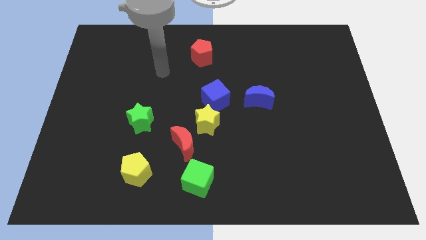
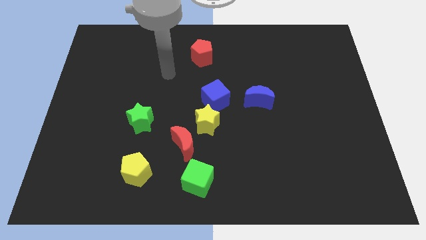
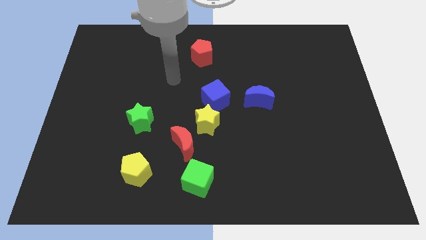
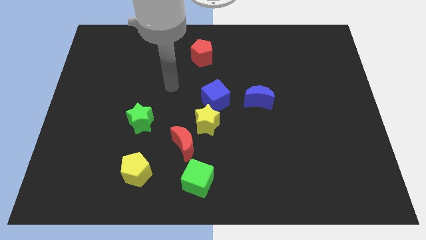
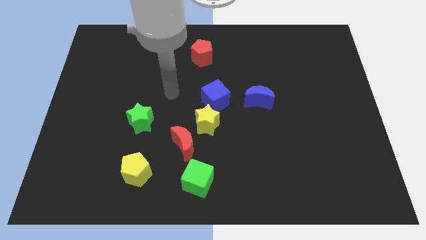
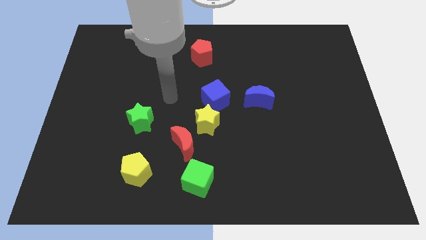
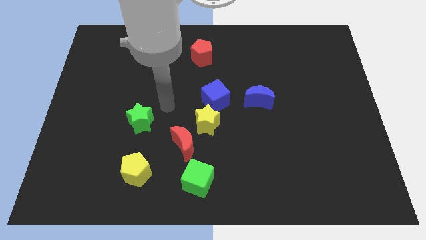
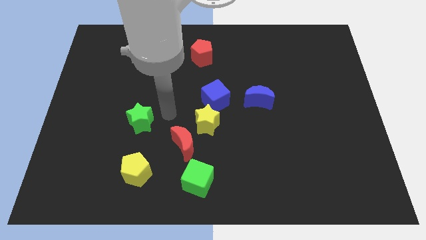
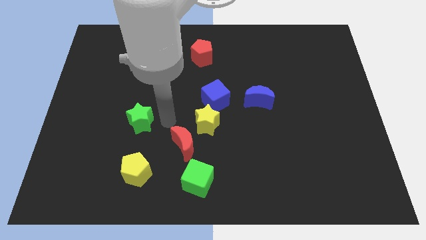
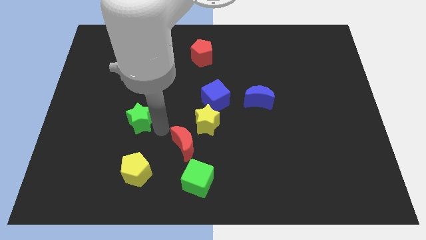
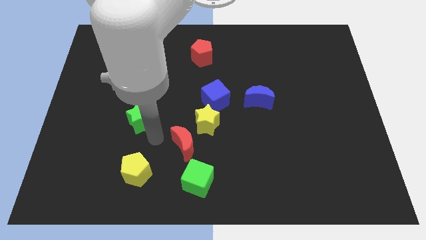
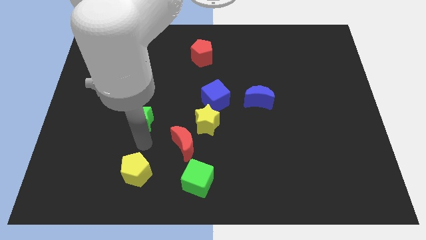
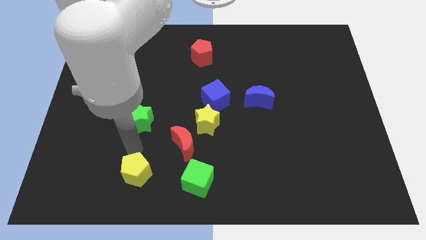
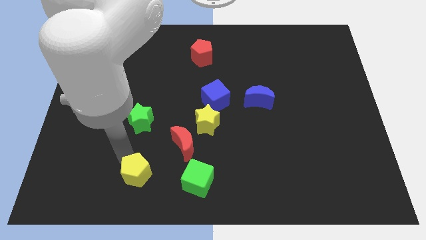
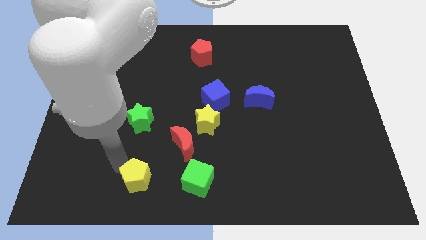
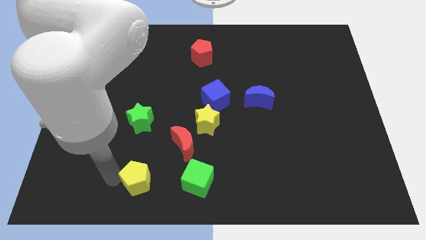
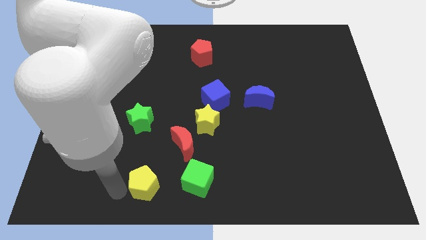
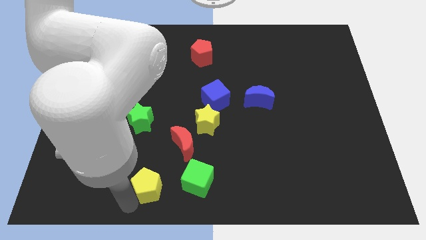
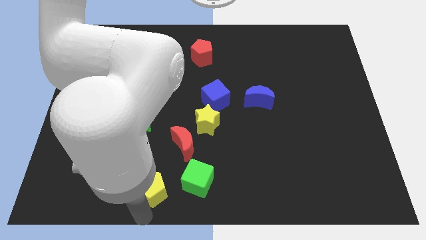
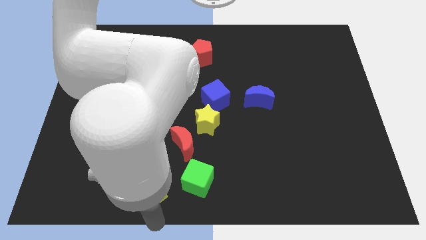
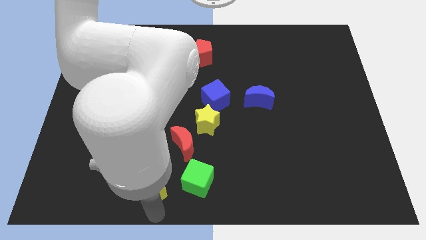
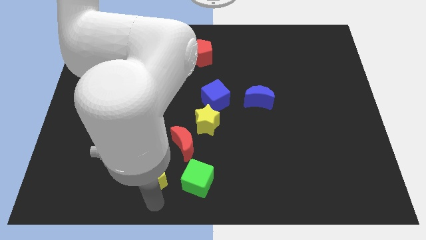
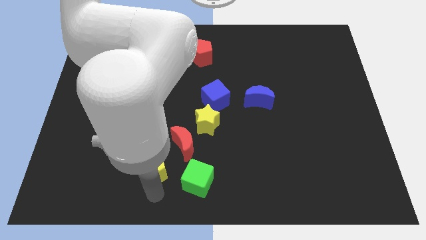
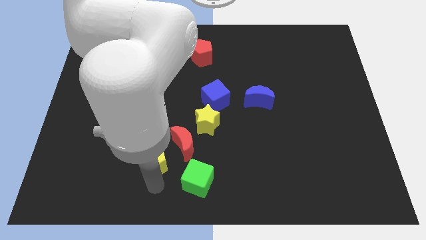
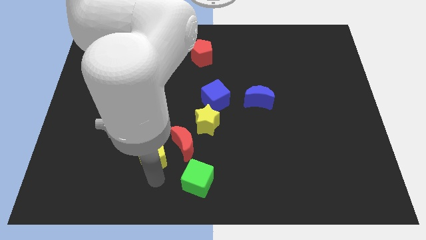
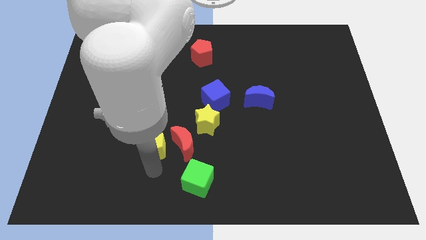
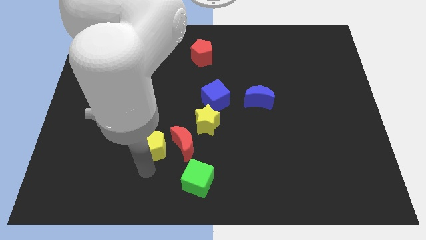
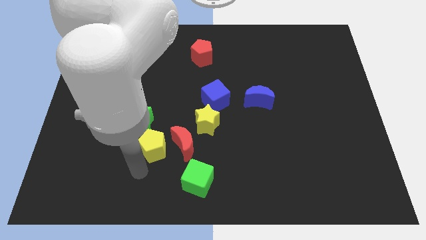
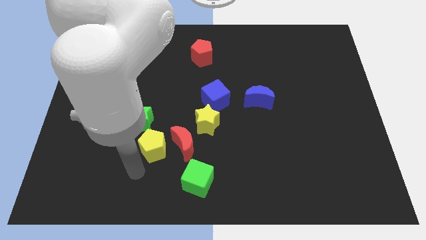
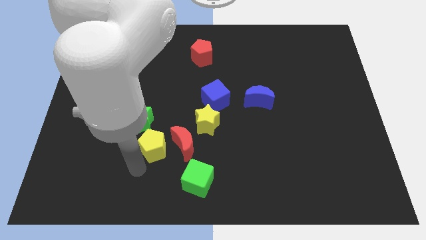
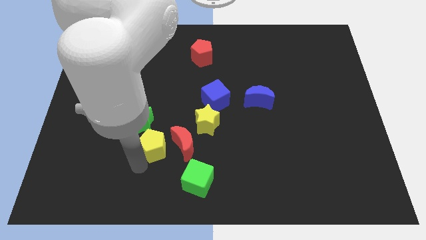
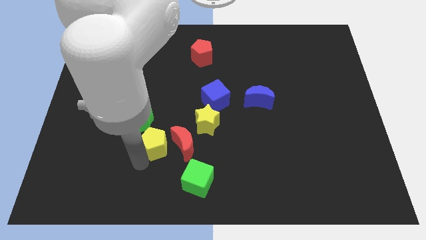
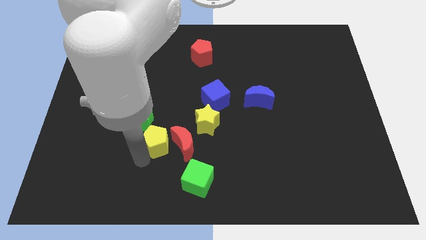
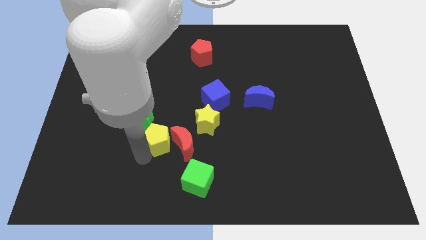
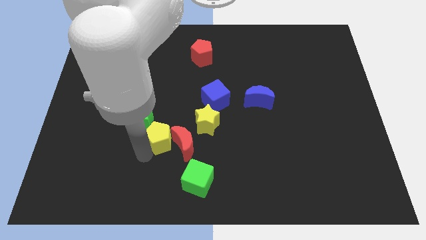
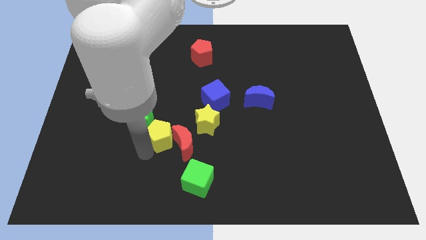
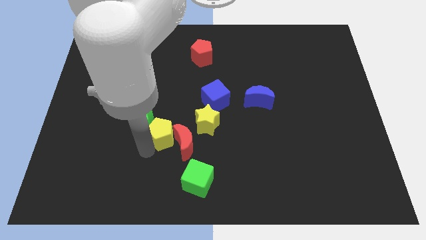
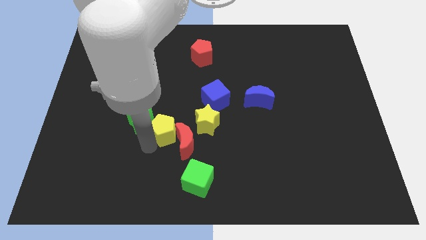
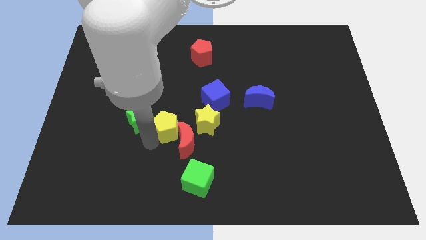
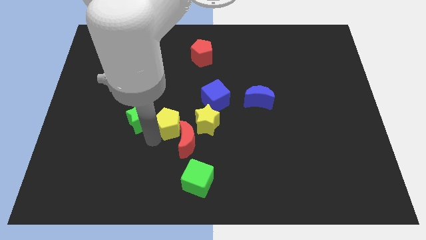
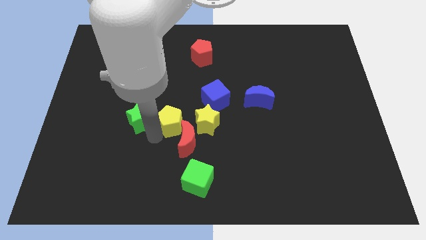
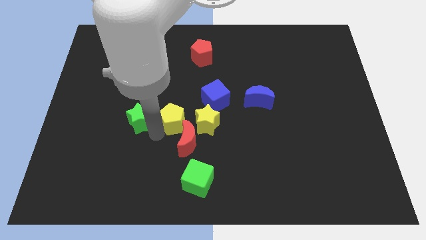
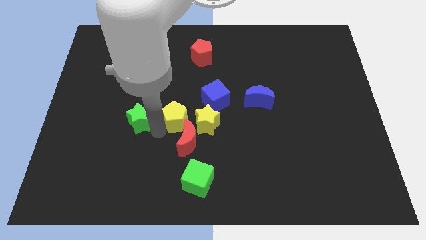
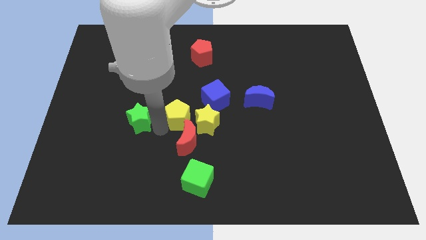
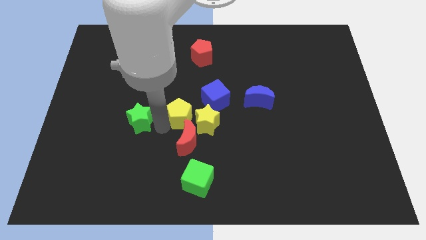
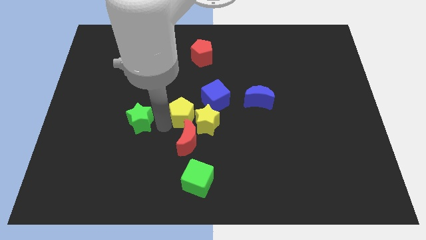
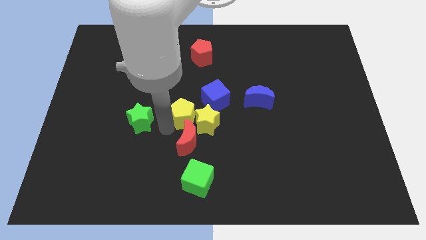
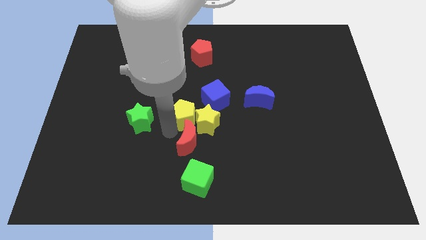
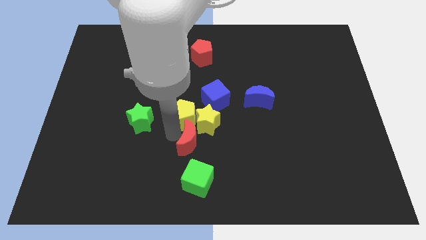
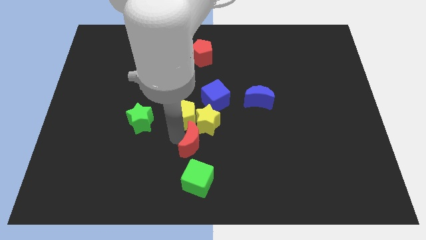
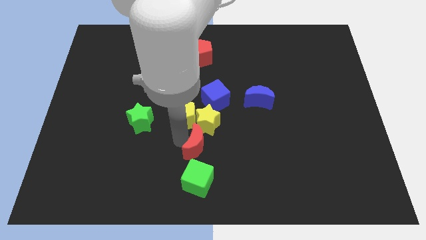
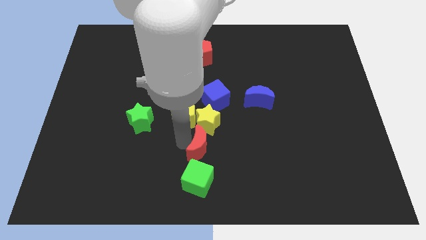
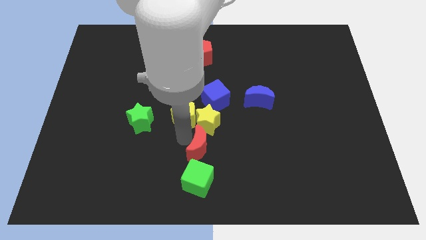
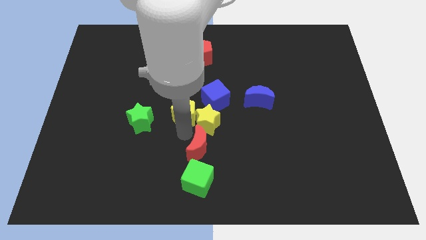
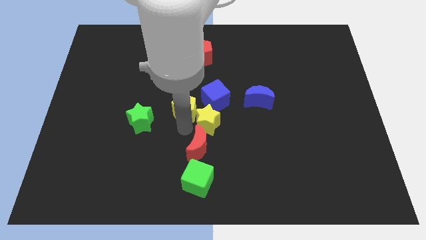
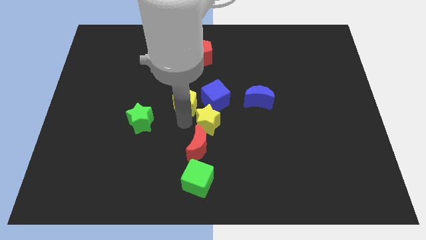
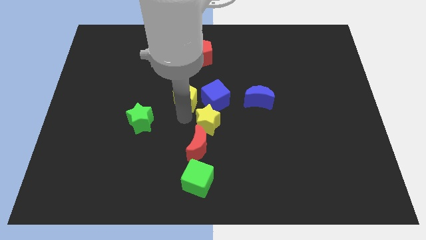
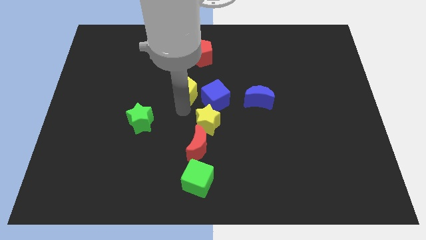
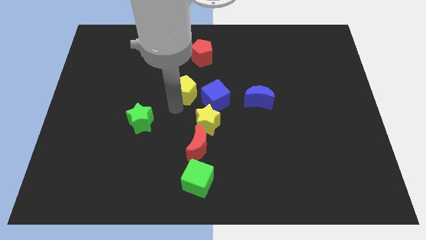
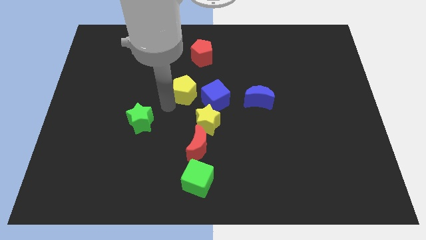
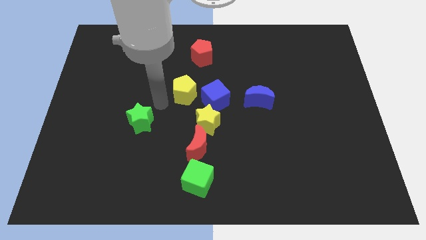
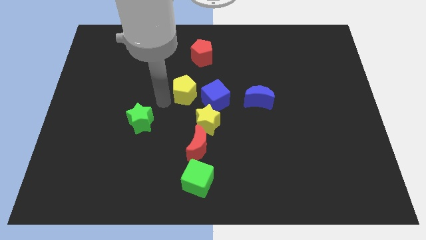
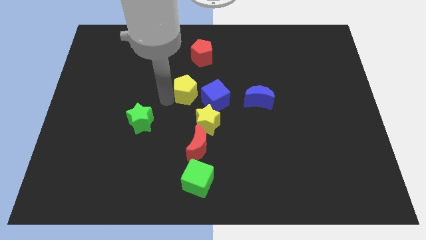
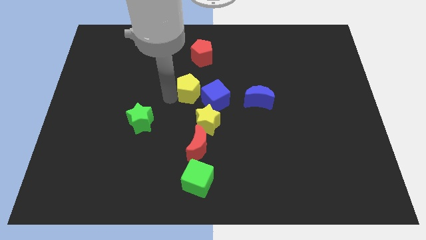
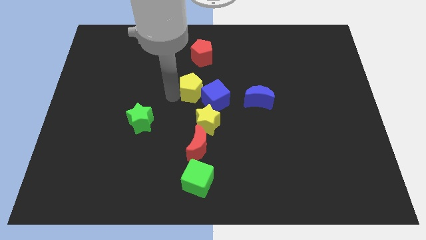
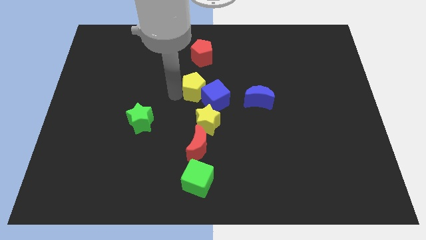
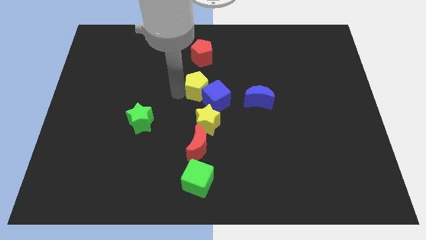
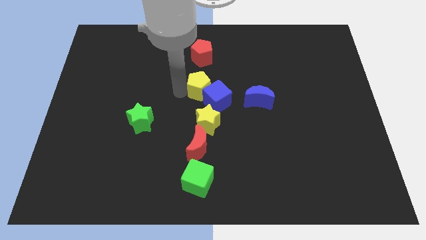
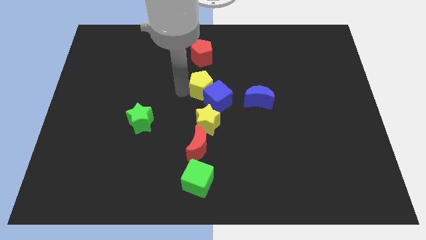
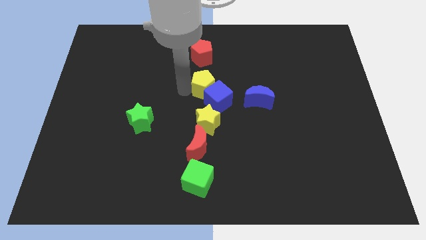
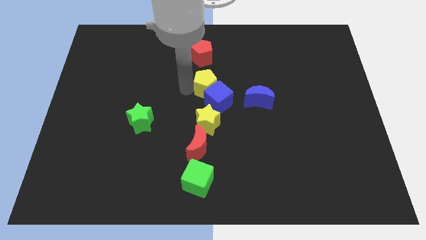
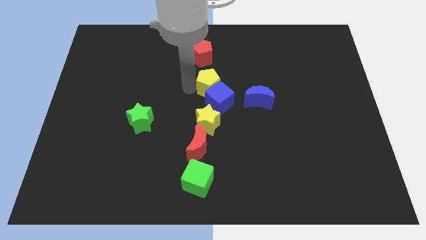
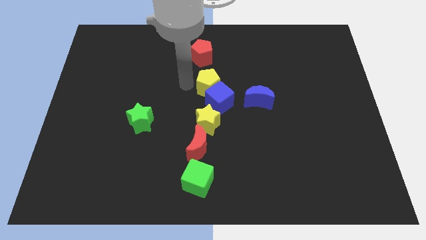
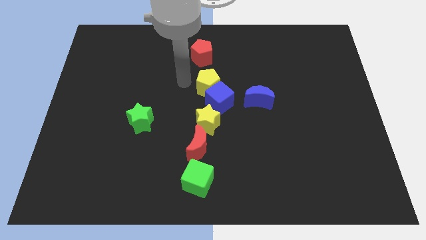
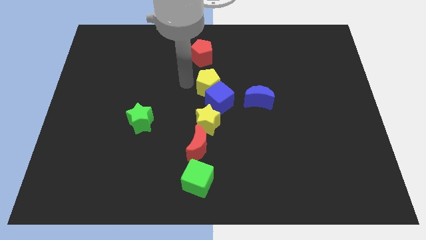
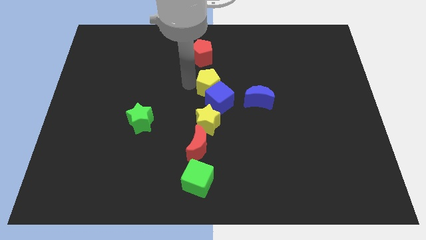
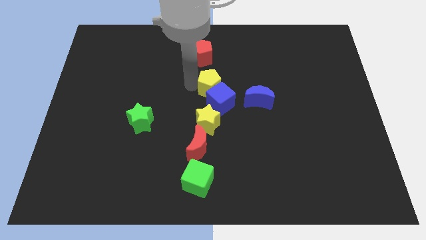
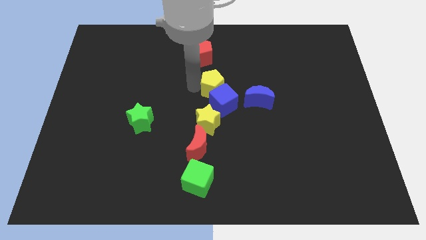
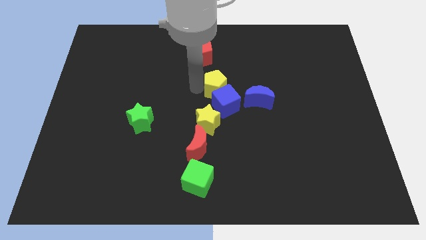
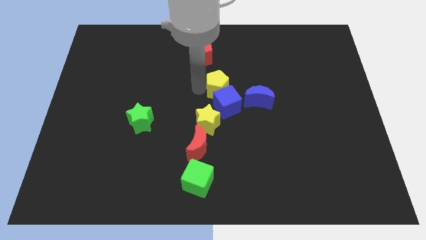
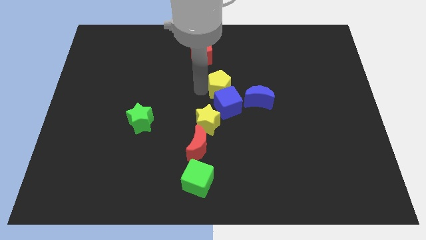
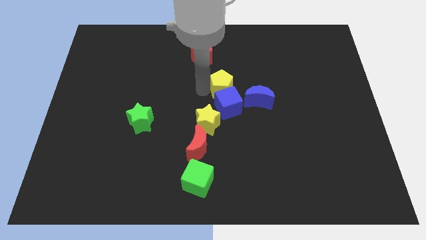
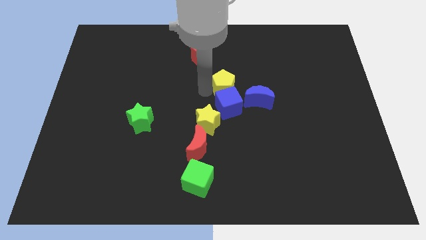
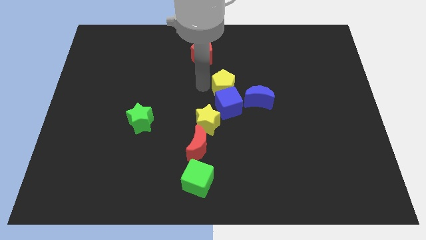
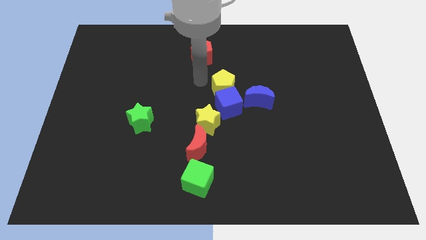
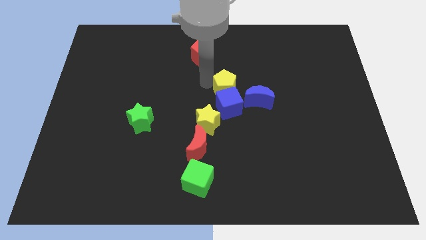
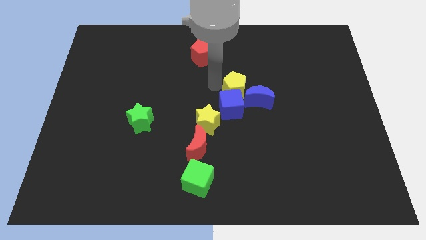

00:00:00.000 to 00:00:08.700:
slide the yellow pentagon to the blue moon
